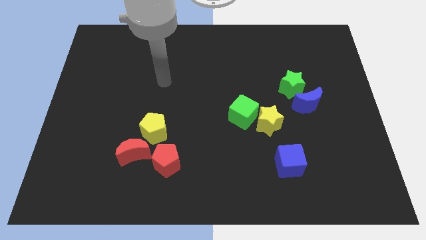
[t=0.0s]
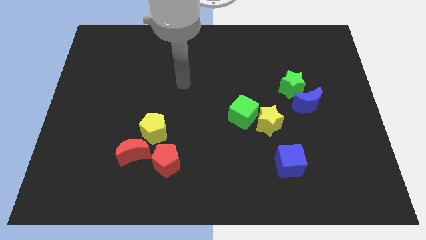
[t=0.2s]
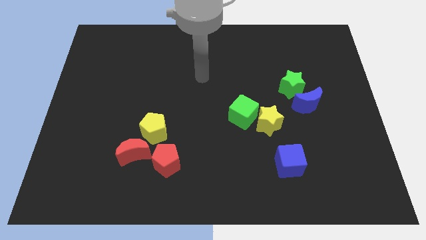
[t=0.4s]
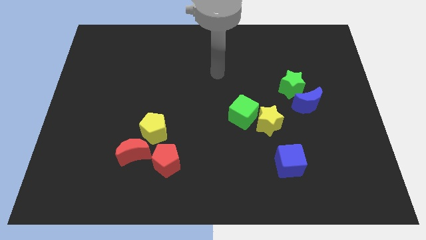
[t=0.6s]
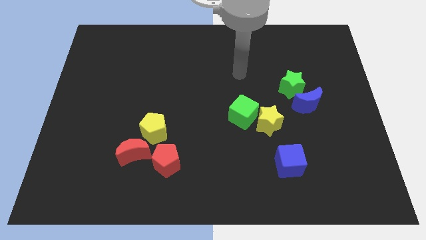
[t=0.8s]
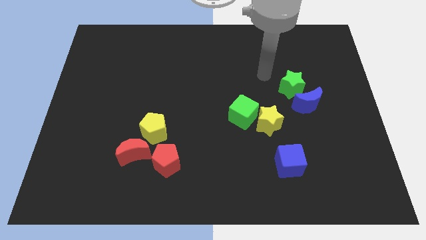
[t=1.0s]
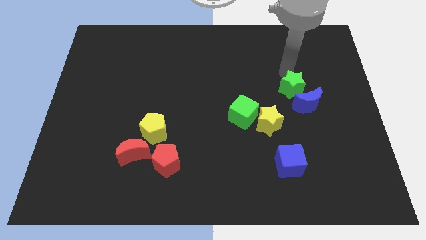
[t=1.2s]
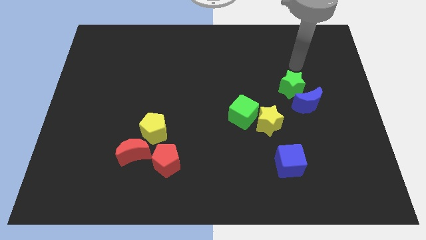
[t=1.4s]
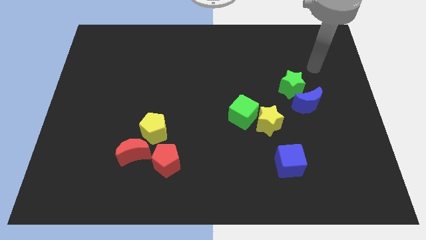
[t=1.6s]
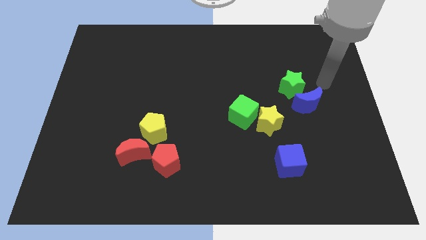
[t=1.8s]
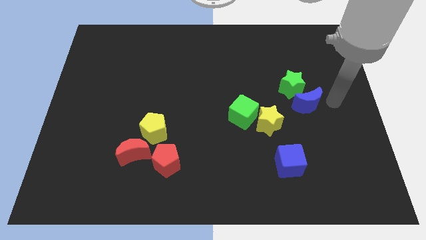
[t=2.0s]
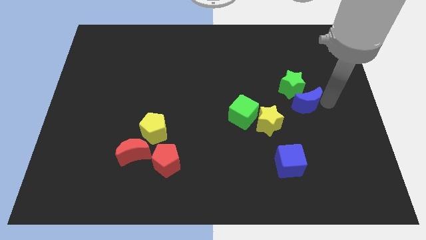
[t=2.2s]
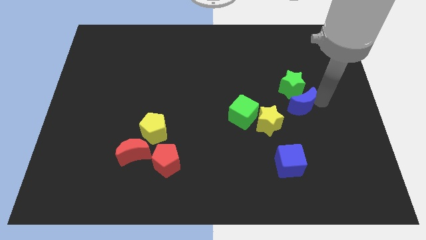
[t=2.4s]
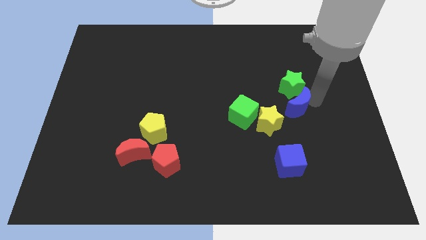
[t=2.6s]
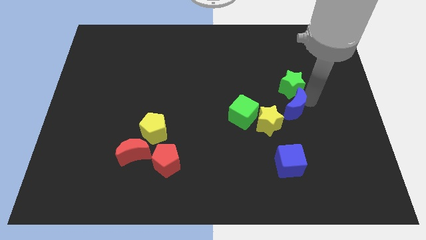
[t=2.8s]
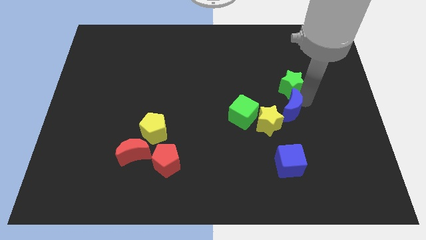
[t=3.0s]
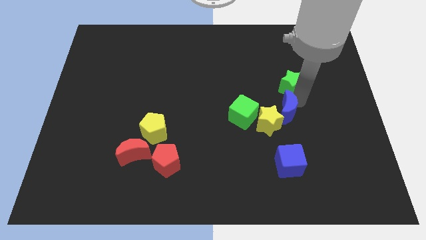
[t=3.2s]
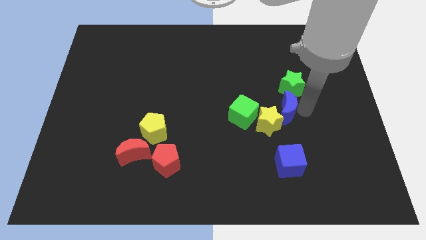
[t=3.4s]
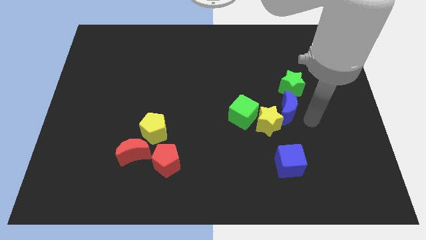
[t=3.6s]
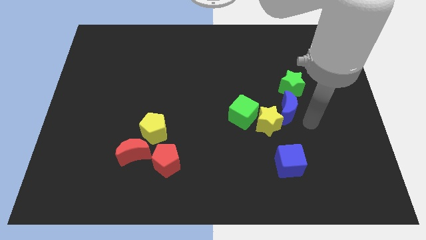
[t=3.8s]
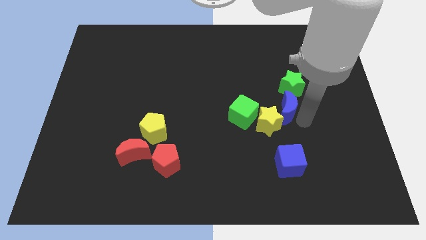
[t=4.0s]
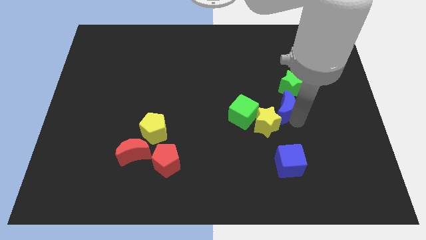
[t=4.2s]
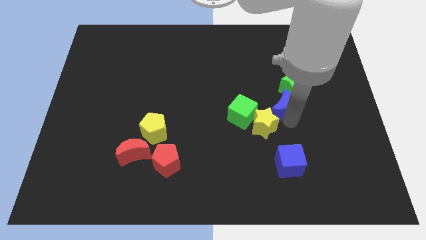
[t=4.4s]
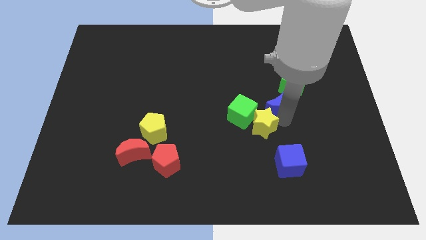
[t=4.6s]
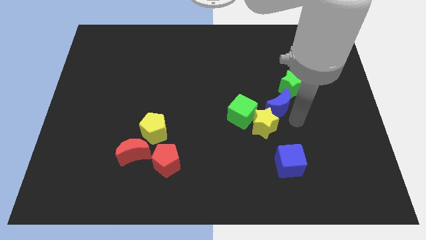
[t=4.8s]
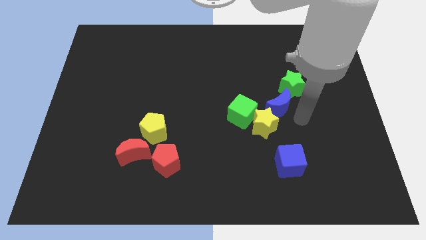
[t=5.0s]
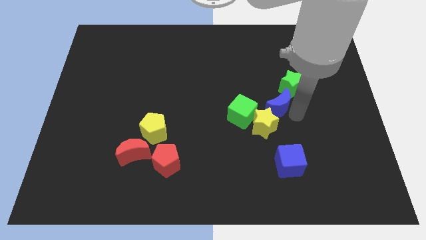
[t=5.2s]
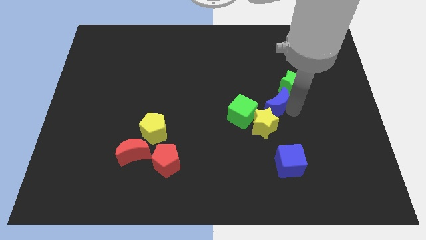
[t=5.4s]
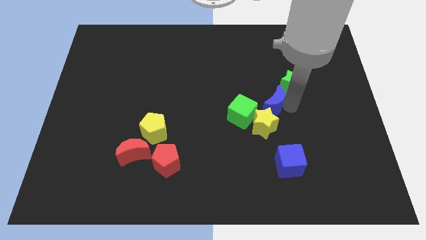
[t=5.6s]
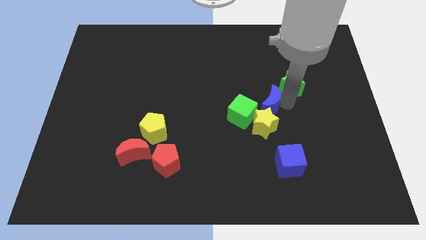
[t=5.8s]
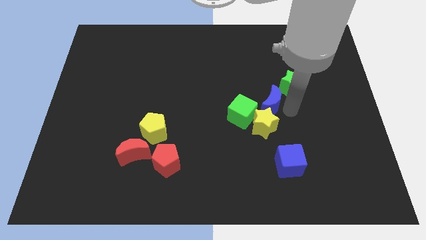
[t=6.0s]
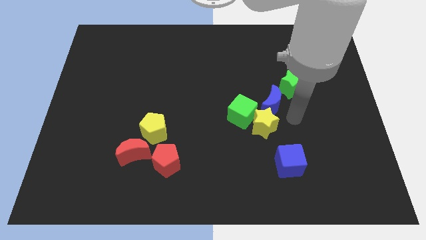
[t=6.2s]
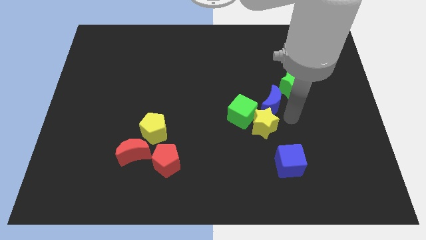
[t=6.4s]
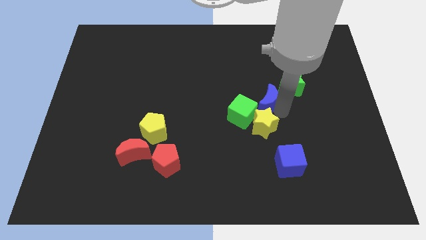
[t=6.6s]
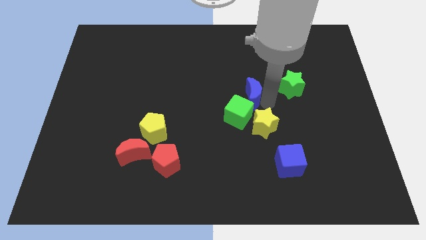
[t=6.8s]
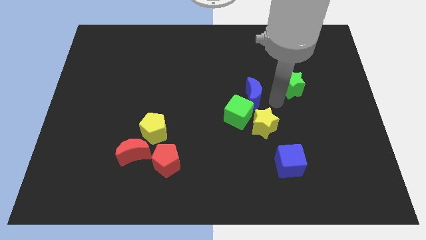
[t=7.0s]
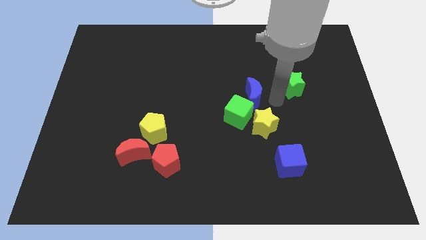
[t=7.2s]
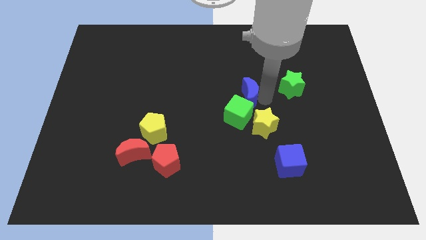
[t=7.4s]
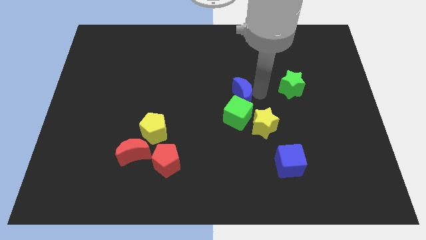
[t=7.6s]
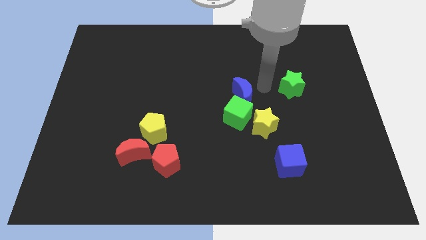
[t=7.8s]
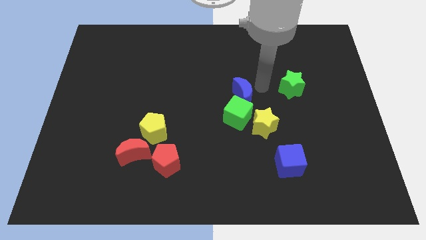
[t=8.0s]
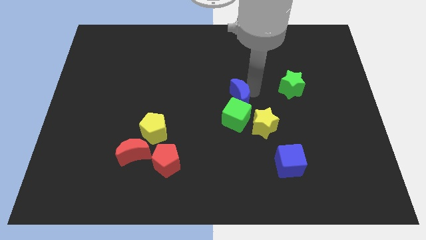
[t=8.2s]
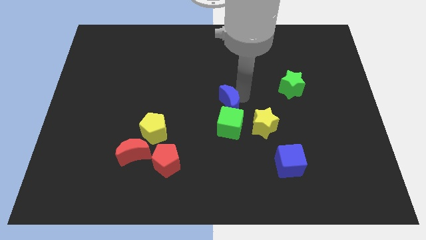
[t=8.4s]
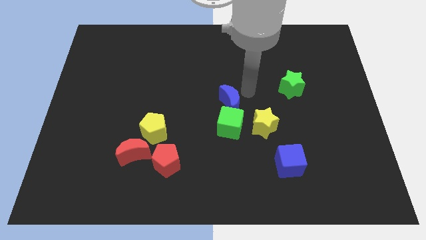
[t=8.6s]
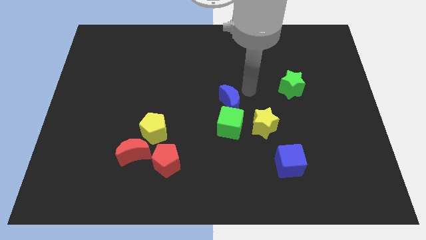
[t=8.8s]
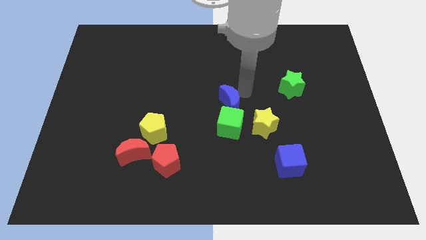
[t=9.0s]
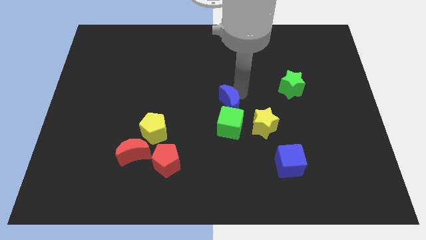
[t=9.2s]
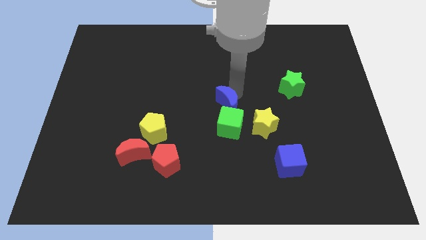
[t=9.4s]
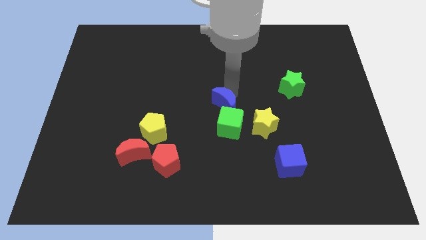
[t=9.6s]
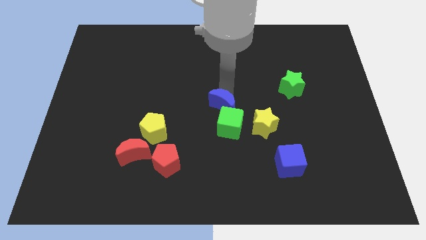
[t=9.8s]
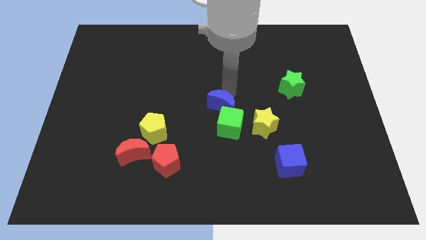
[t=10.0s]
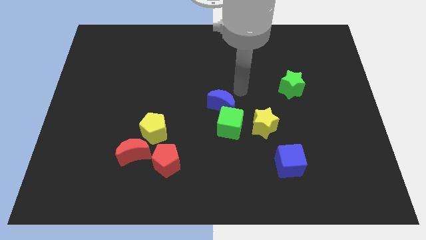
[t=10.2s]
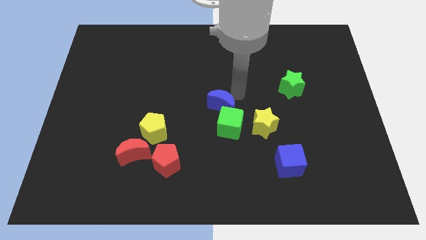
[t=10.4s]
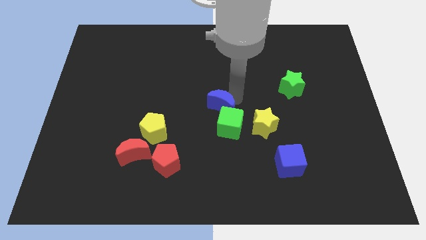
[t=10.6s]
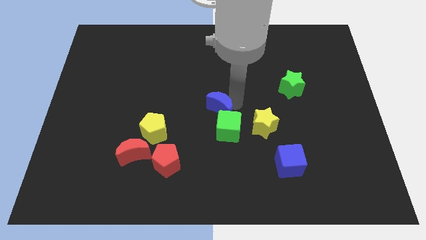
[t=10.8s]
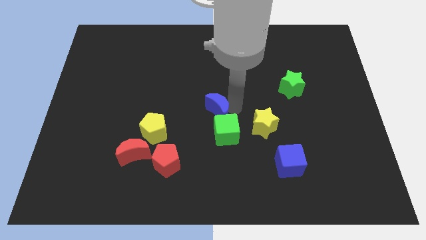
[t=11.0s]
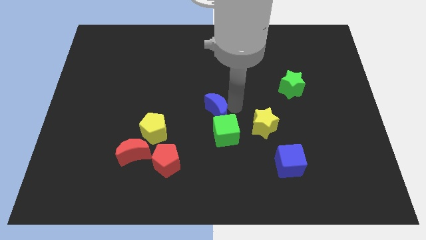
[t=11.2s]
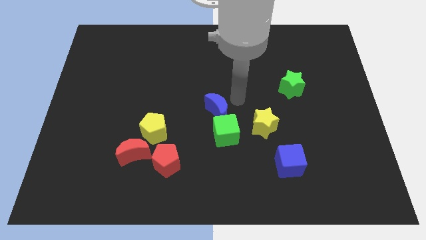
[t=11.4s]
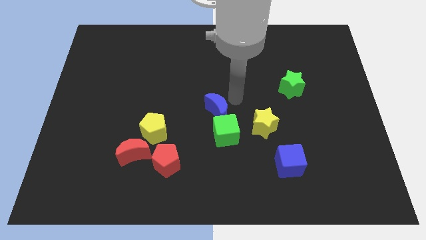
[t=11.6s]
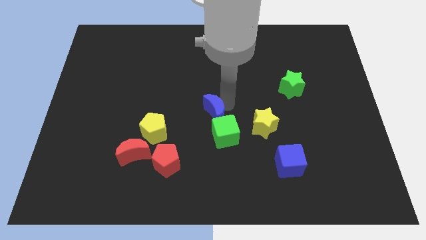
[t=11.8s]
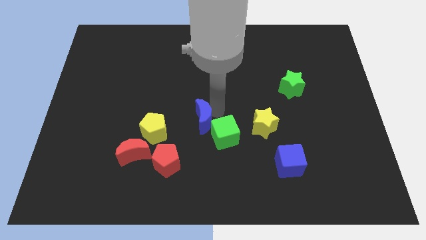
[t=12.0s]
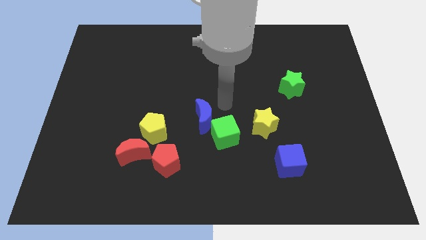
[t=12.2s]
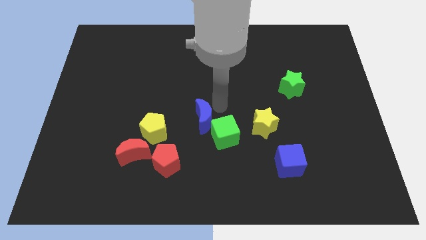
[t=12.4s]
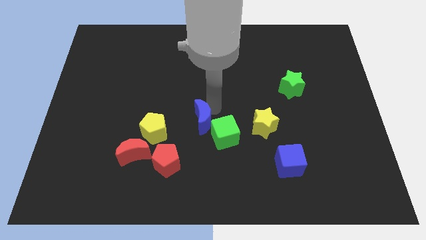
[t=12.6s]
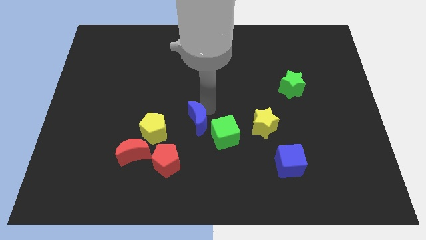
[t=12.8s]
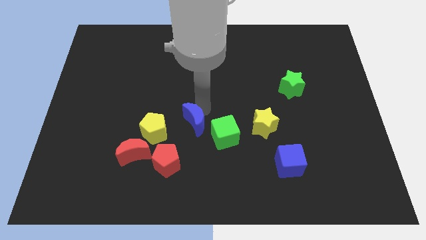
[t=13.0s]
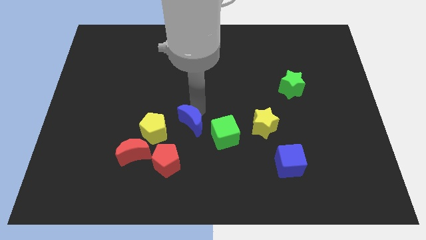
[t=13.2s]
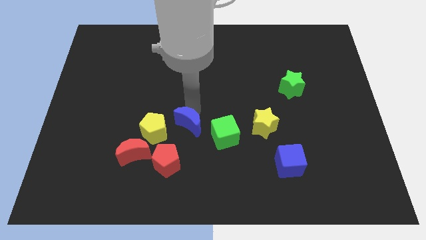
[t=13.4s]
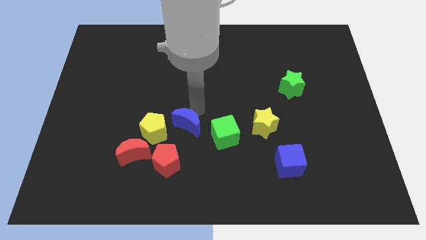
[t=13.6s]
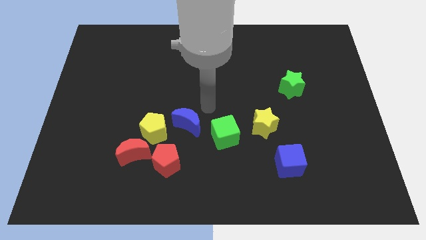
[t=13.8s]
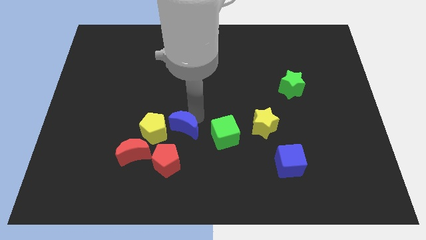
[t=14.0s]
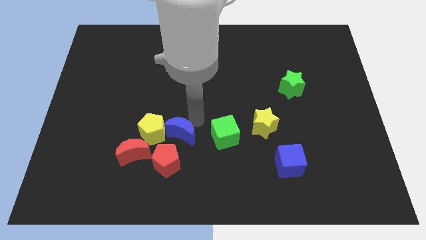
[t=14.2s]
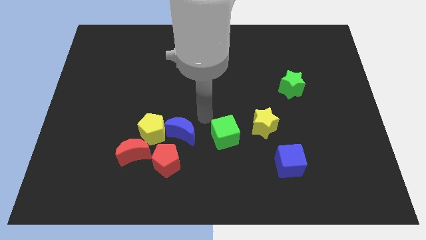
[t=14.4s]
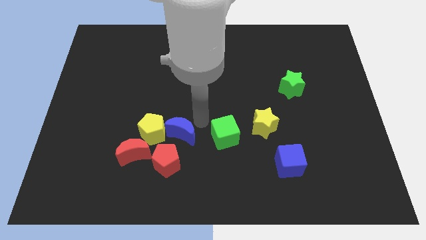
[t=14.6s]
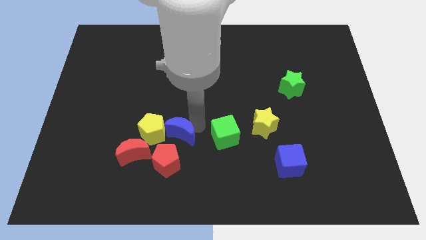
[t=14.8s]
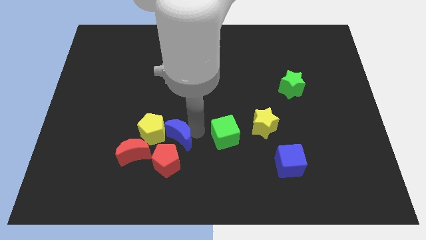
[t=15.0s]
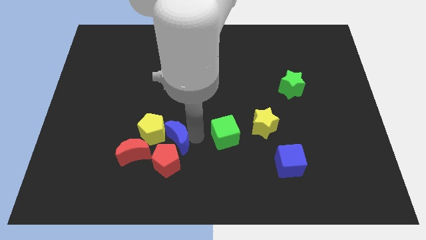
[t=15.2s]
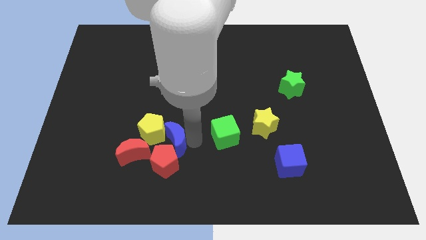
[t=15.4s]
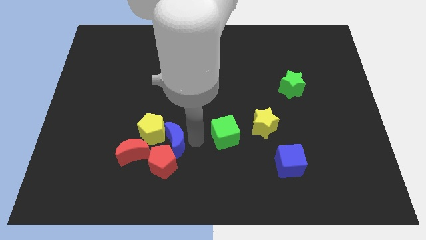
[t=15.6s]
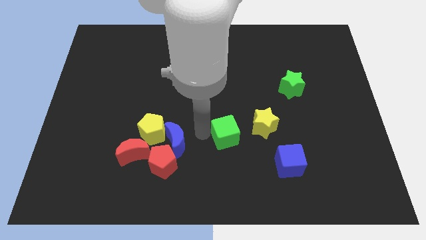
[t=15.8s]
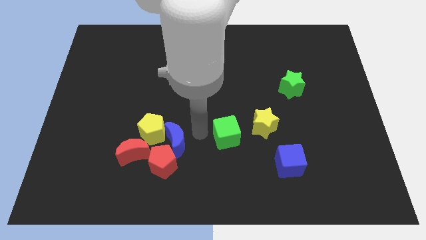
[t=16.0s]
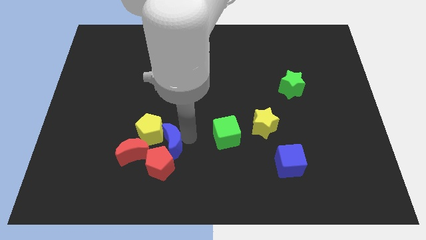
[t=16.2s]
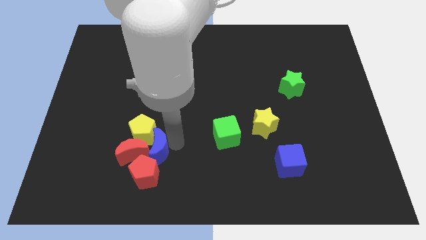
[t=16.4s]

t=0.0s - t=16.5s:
move the blue moon towards the red moon
